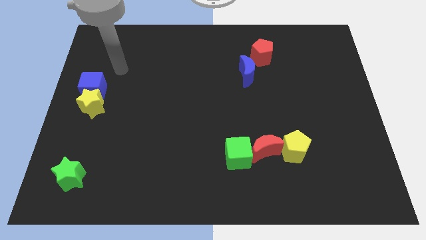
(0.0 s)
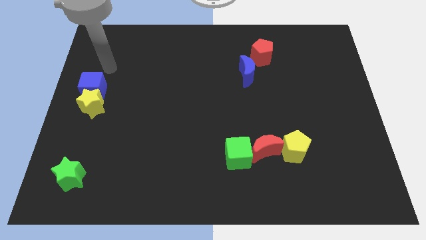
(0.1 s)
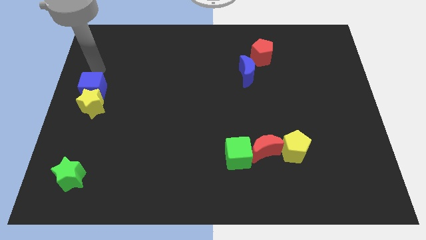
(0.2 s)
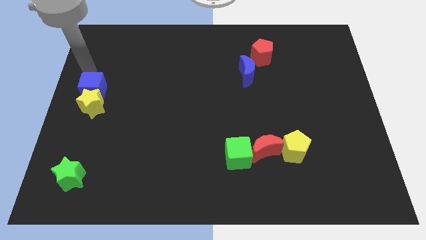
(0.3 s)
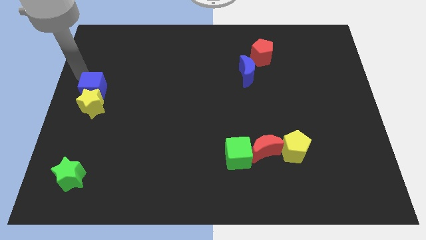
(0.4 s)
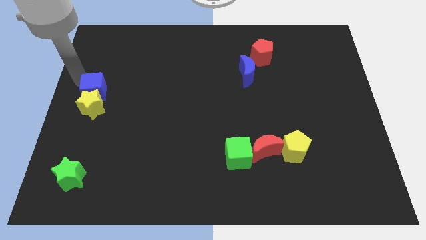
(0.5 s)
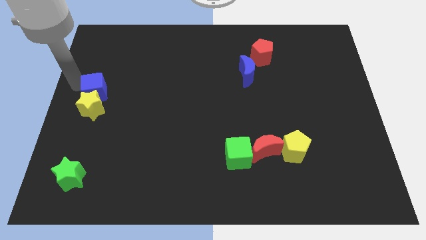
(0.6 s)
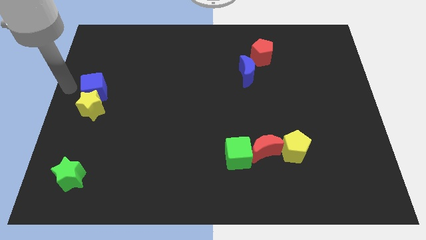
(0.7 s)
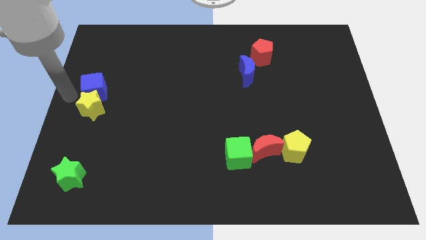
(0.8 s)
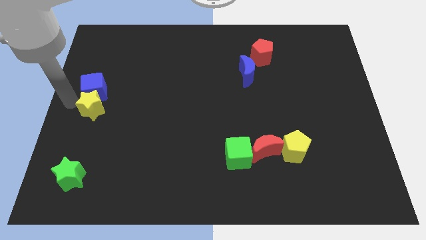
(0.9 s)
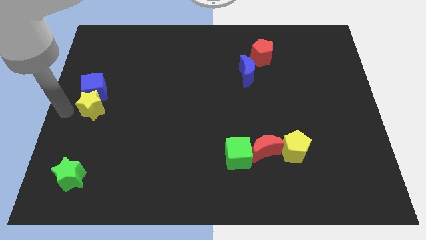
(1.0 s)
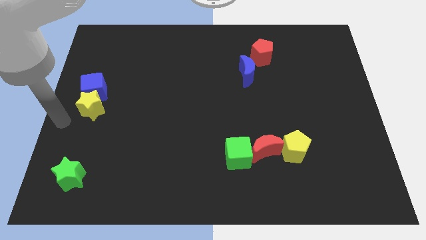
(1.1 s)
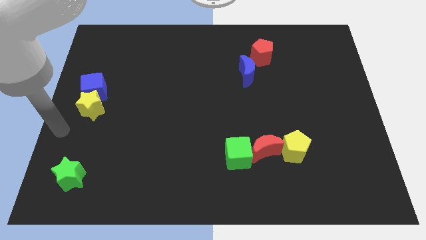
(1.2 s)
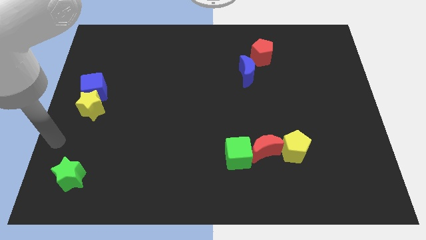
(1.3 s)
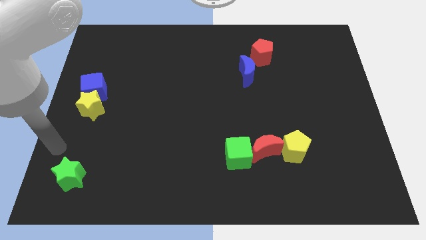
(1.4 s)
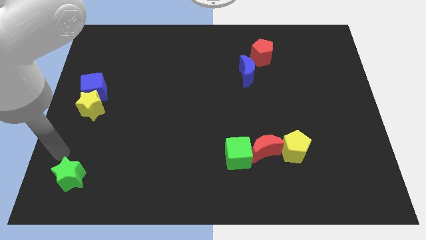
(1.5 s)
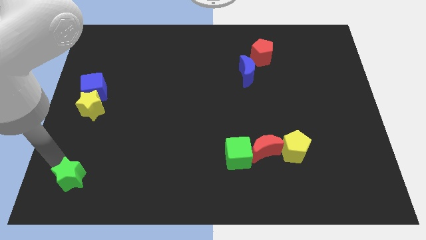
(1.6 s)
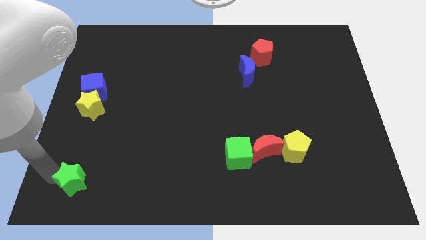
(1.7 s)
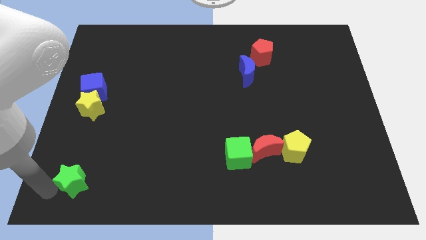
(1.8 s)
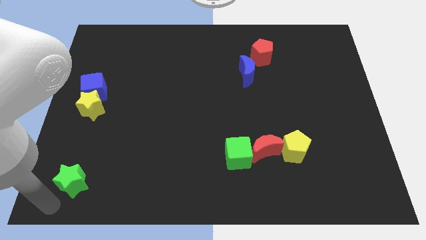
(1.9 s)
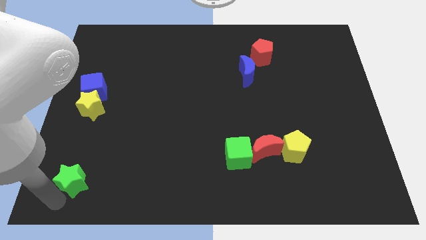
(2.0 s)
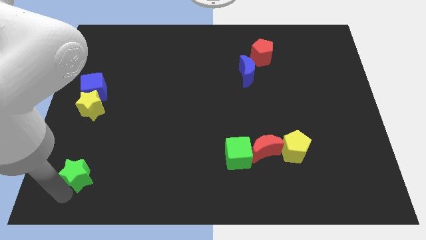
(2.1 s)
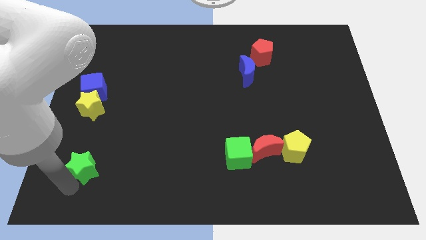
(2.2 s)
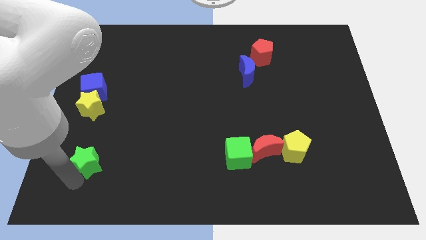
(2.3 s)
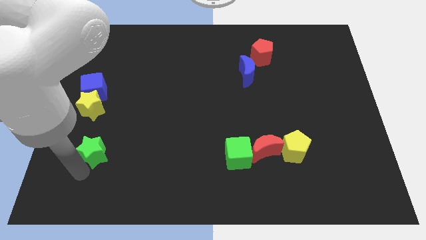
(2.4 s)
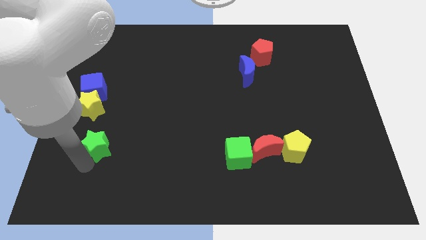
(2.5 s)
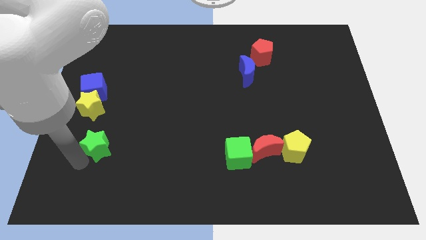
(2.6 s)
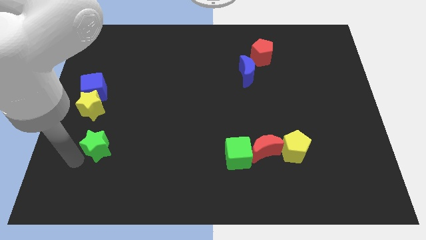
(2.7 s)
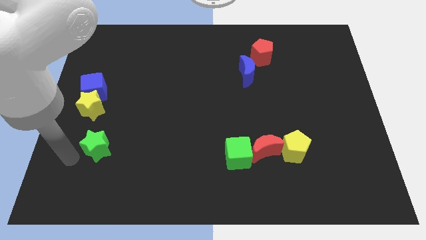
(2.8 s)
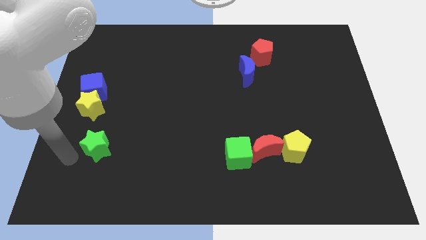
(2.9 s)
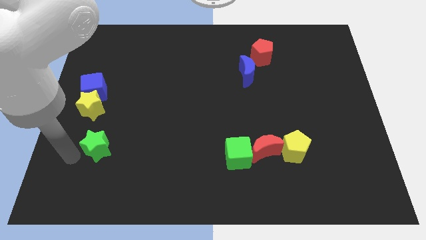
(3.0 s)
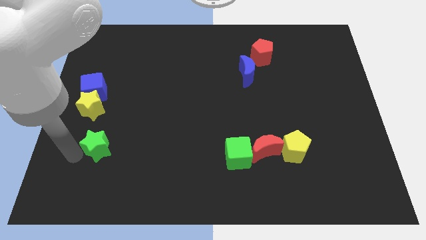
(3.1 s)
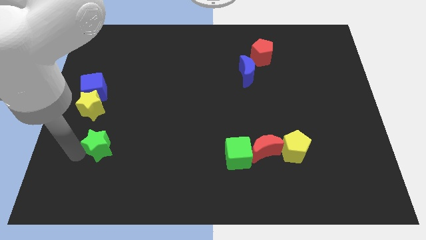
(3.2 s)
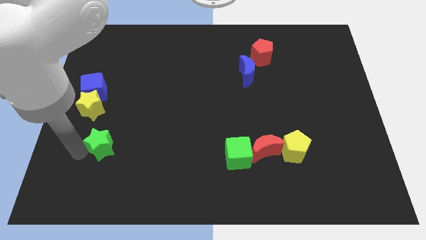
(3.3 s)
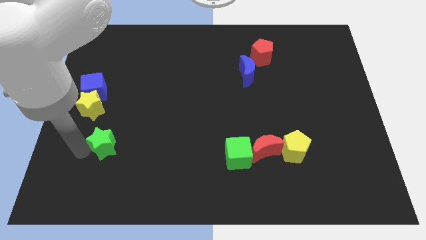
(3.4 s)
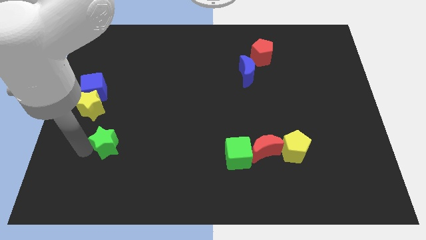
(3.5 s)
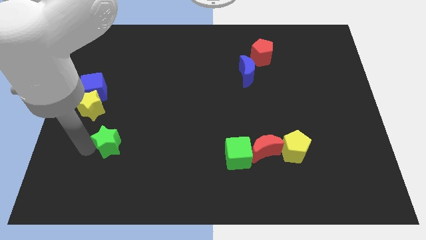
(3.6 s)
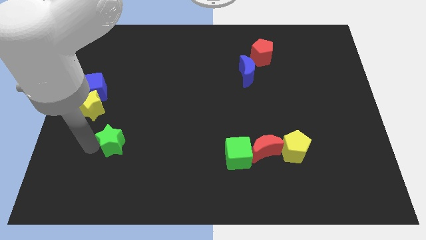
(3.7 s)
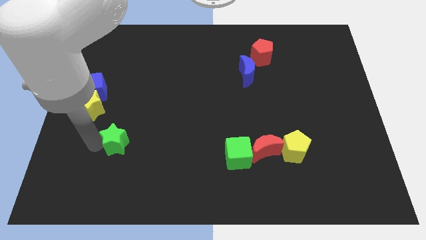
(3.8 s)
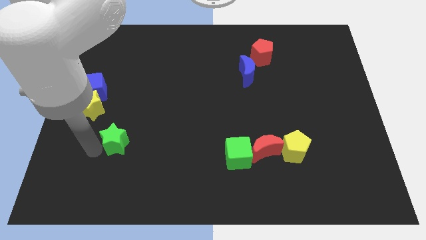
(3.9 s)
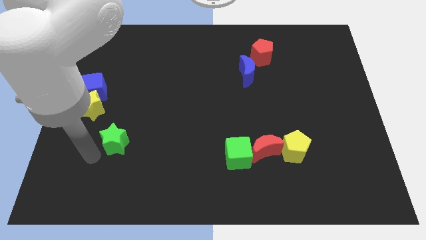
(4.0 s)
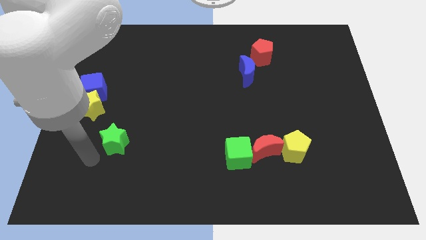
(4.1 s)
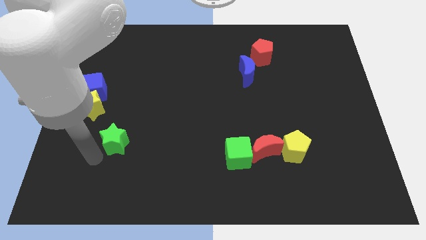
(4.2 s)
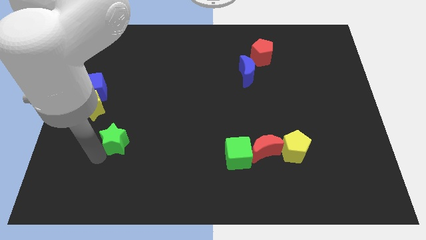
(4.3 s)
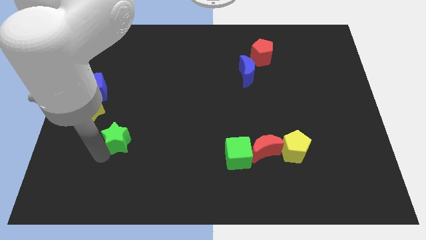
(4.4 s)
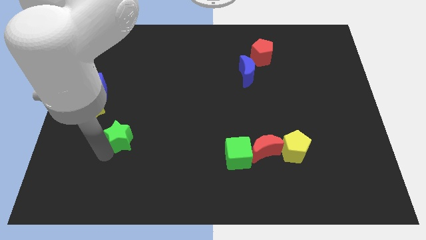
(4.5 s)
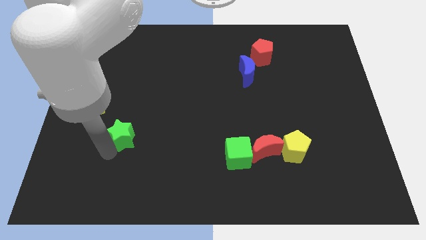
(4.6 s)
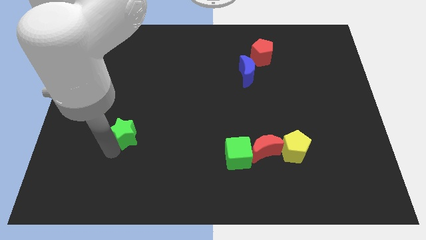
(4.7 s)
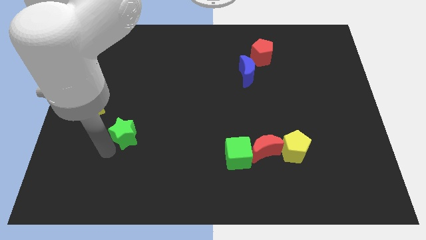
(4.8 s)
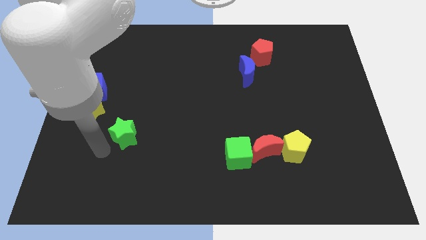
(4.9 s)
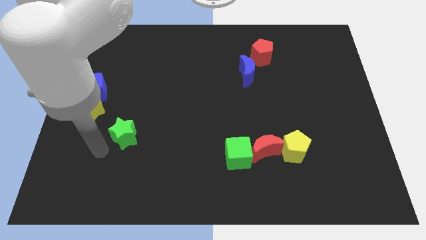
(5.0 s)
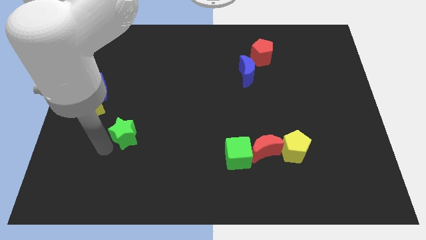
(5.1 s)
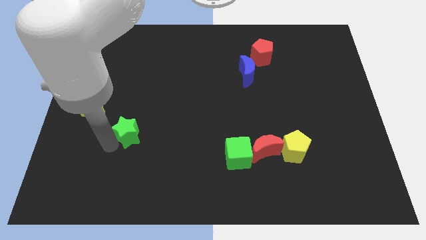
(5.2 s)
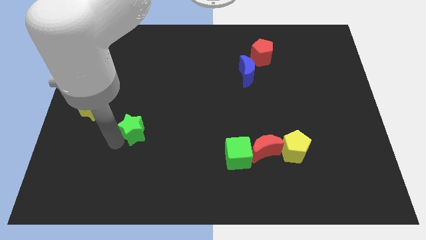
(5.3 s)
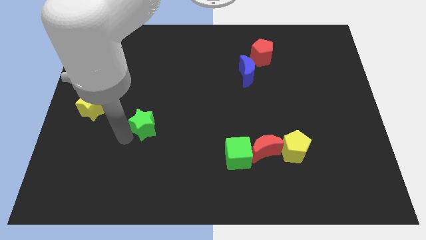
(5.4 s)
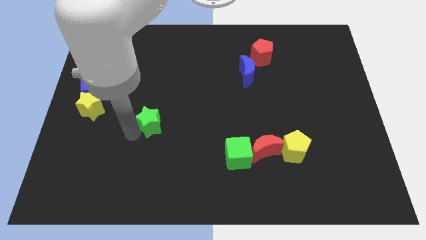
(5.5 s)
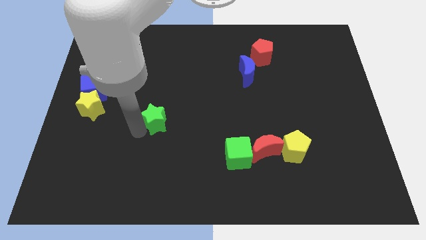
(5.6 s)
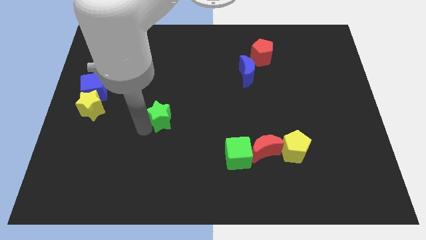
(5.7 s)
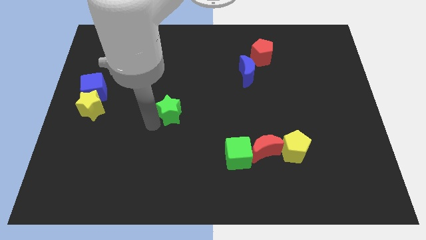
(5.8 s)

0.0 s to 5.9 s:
move the green star to the center

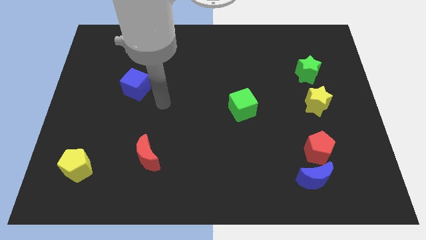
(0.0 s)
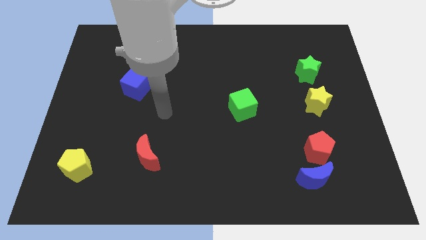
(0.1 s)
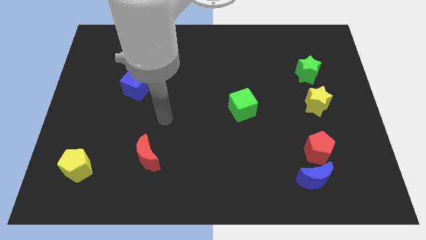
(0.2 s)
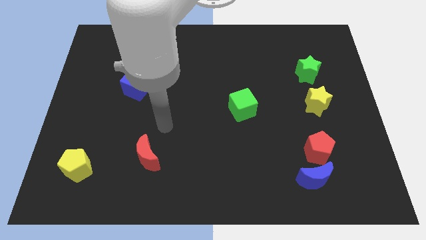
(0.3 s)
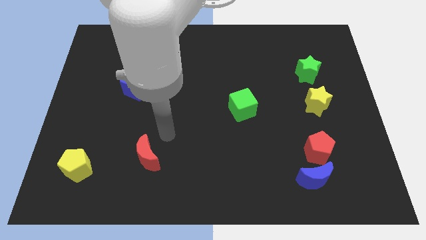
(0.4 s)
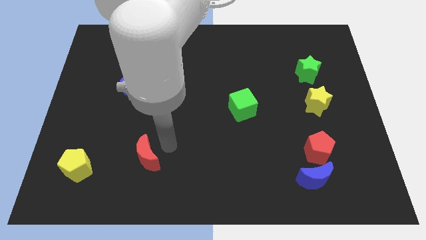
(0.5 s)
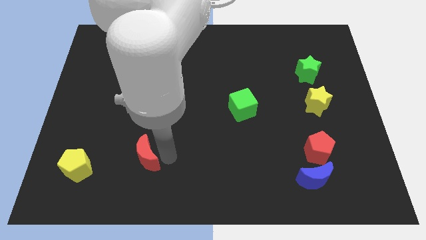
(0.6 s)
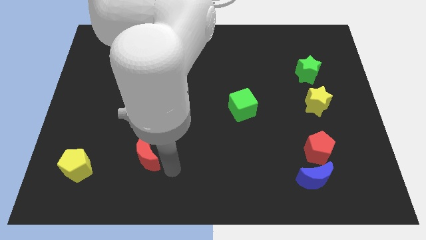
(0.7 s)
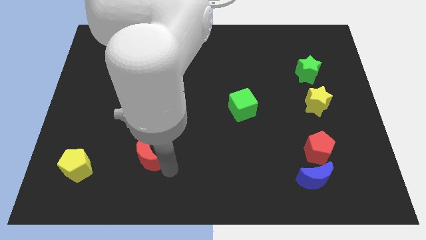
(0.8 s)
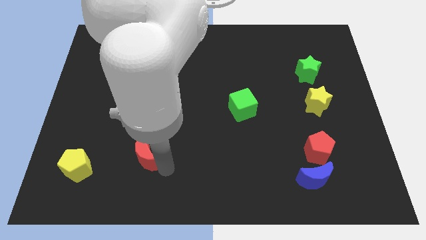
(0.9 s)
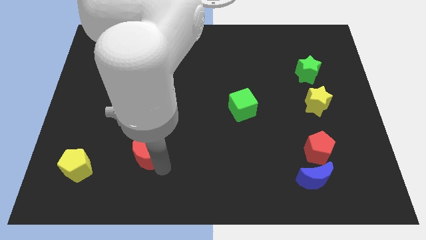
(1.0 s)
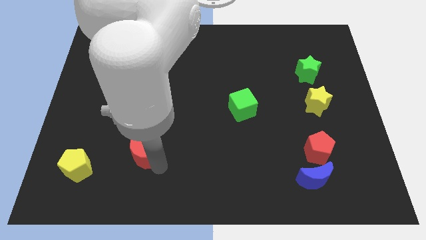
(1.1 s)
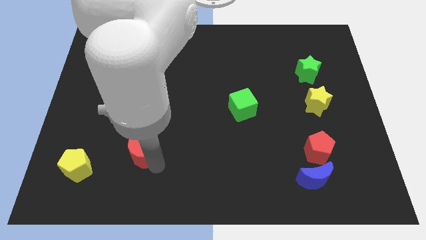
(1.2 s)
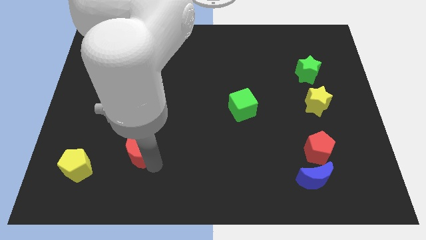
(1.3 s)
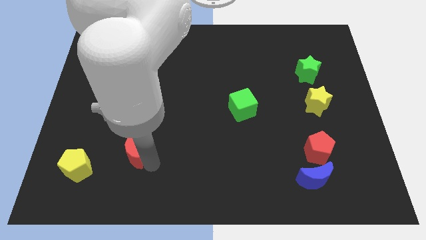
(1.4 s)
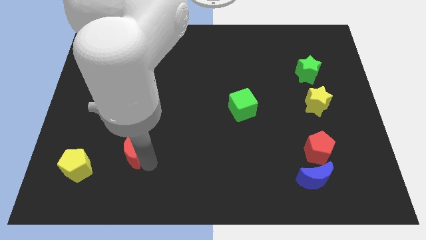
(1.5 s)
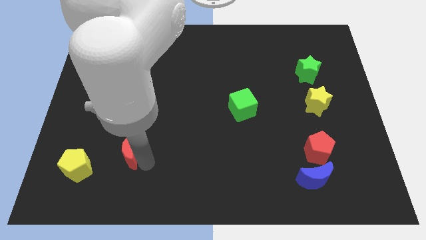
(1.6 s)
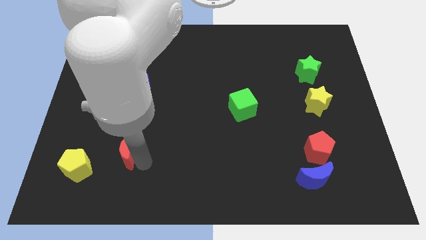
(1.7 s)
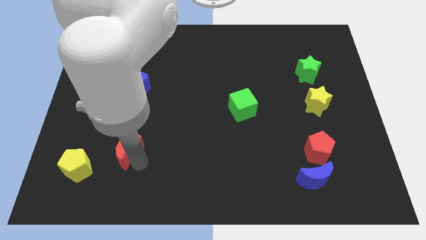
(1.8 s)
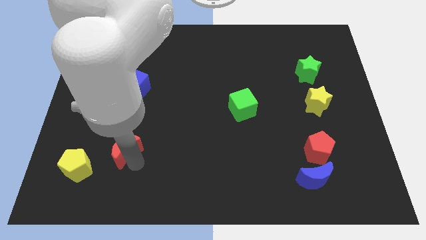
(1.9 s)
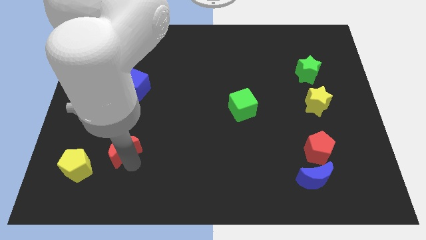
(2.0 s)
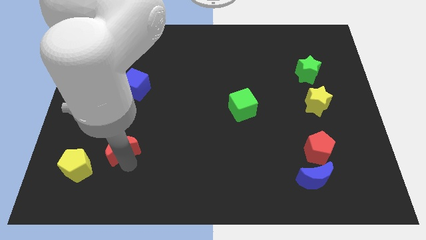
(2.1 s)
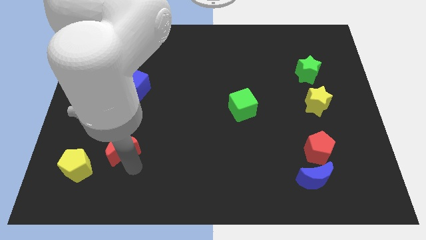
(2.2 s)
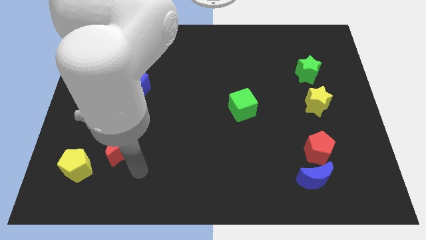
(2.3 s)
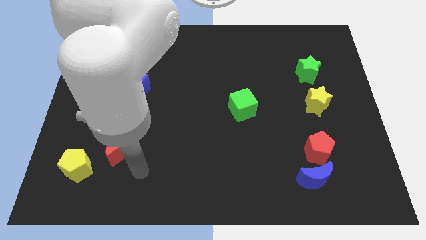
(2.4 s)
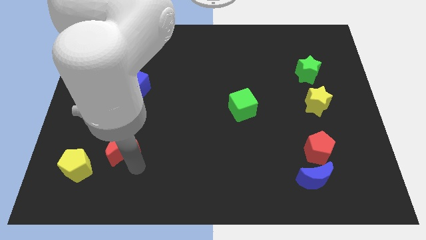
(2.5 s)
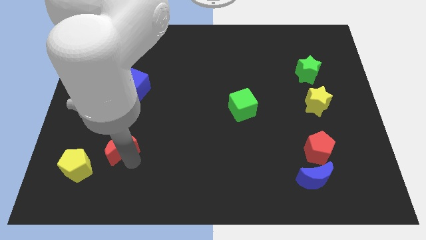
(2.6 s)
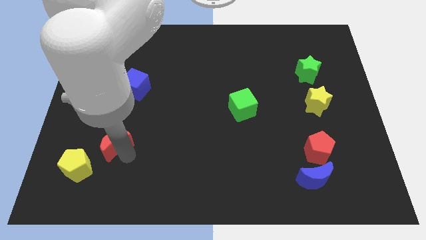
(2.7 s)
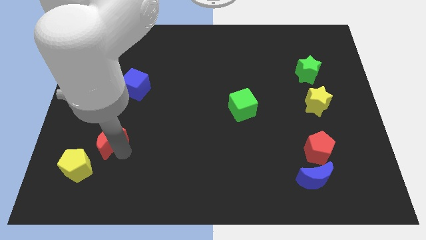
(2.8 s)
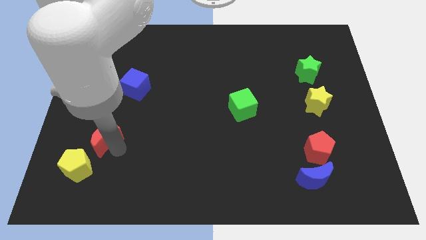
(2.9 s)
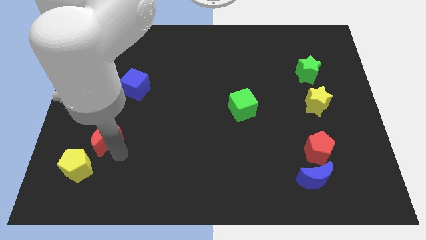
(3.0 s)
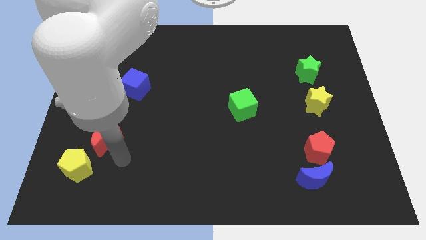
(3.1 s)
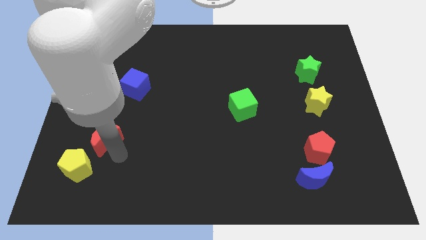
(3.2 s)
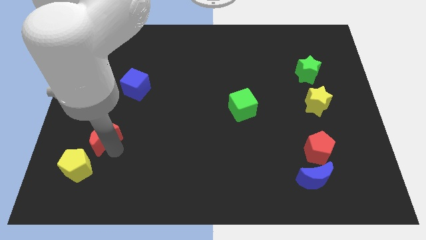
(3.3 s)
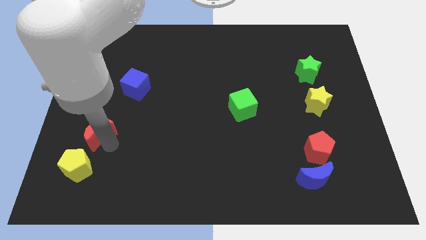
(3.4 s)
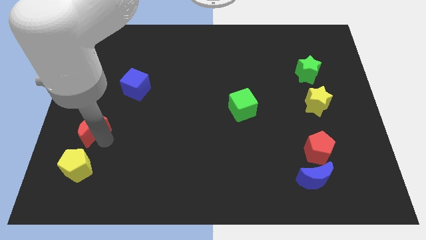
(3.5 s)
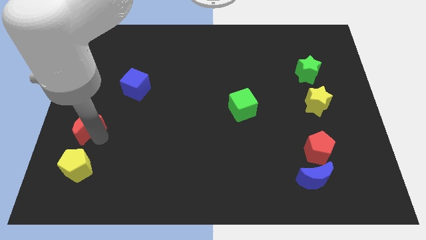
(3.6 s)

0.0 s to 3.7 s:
put the red moon to the left side
